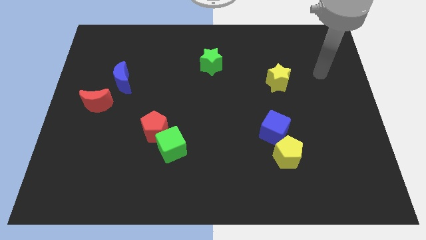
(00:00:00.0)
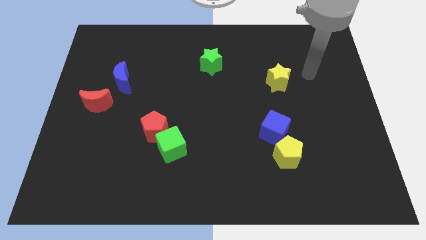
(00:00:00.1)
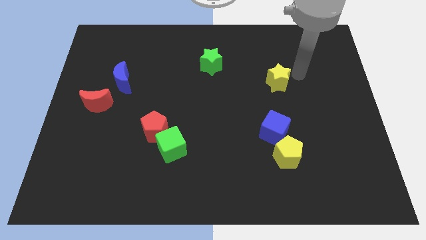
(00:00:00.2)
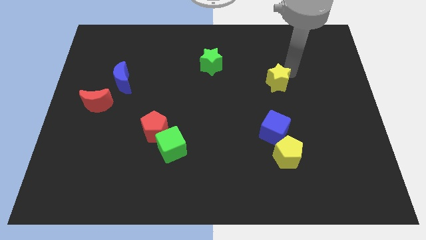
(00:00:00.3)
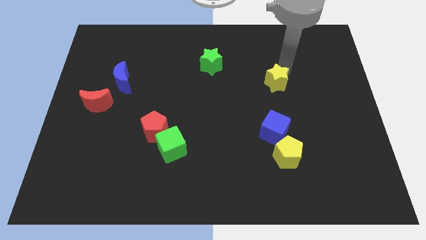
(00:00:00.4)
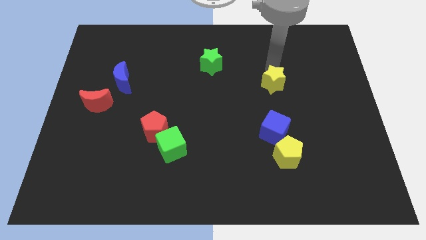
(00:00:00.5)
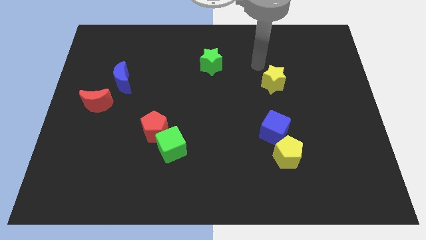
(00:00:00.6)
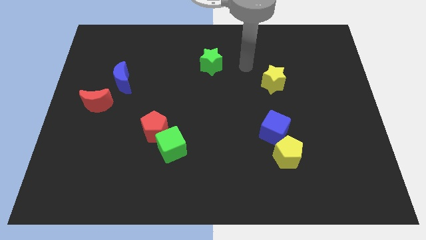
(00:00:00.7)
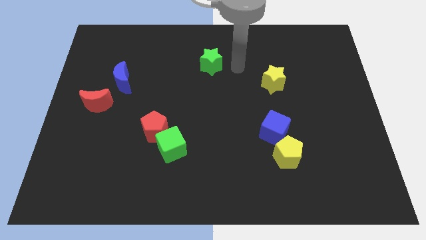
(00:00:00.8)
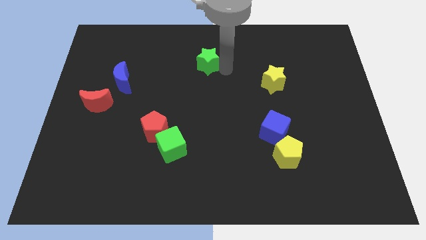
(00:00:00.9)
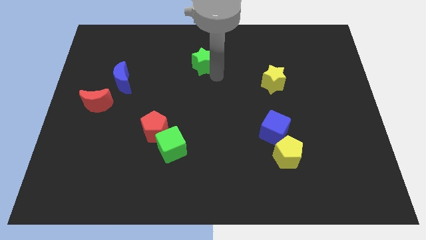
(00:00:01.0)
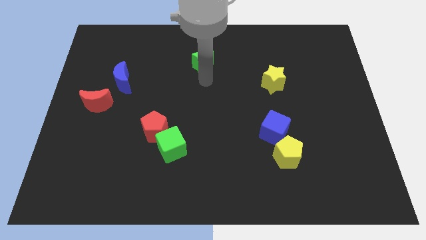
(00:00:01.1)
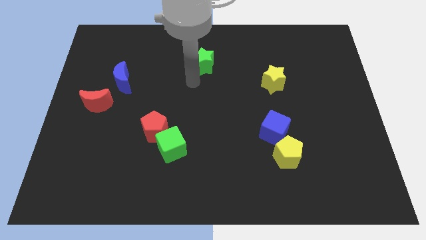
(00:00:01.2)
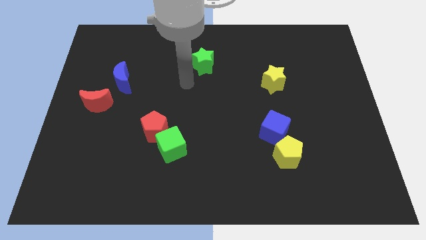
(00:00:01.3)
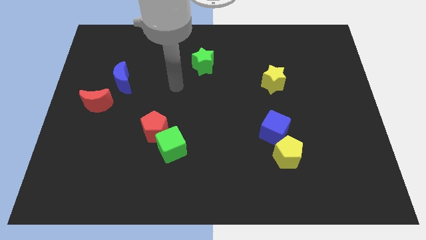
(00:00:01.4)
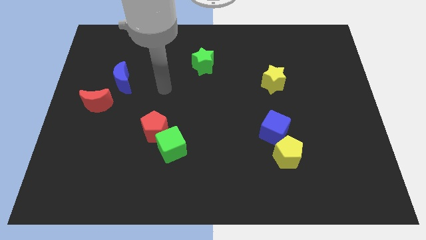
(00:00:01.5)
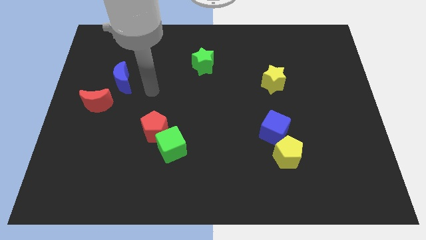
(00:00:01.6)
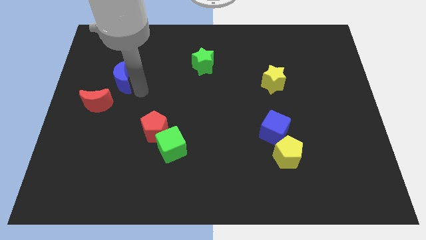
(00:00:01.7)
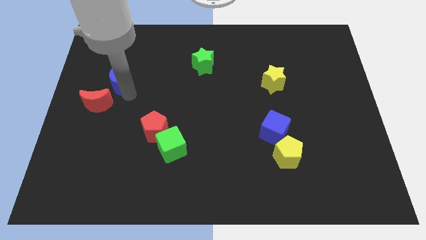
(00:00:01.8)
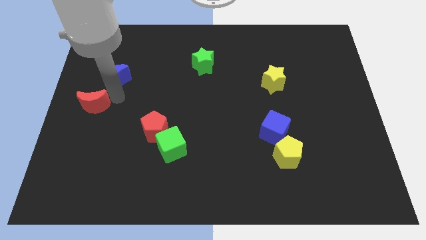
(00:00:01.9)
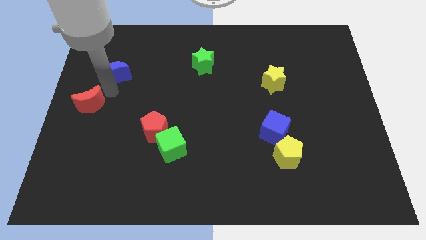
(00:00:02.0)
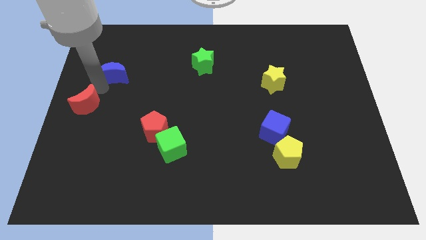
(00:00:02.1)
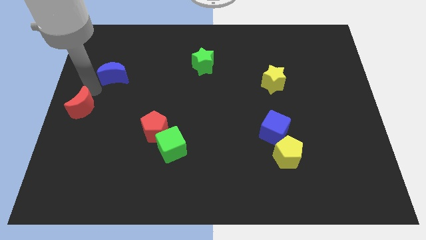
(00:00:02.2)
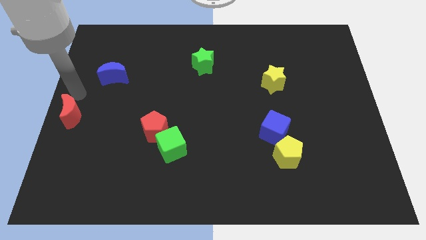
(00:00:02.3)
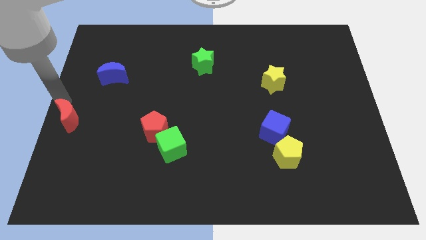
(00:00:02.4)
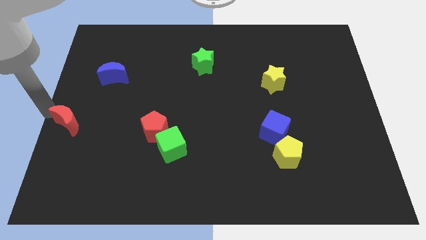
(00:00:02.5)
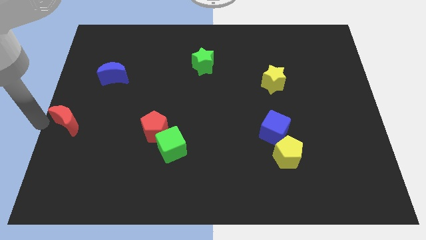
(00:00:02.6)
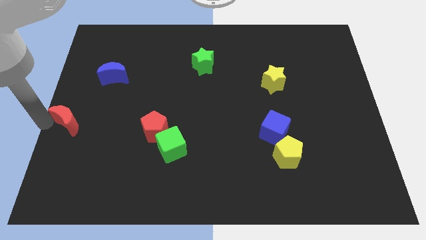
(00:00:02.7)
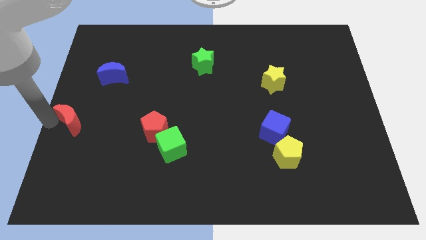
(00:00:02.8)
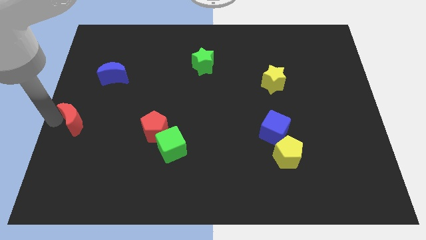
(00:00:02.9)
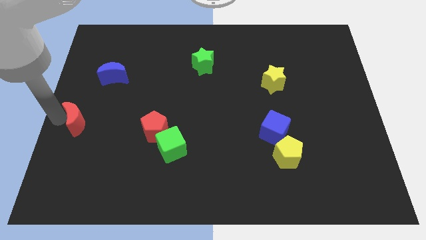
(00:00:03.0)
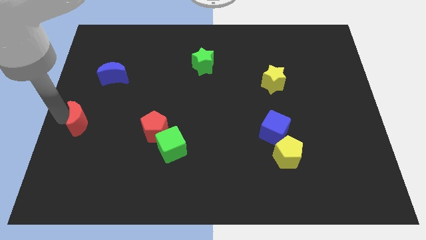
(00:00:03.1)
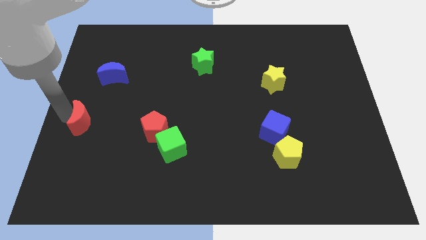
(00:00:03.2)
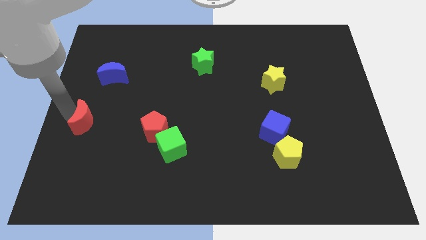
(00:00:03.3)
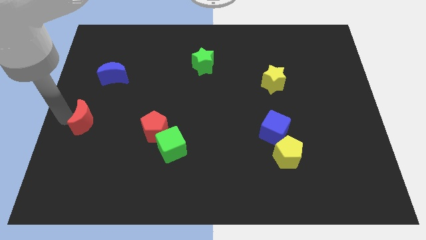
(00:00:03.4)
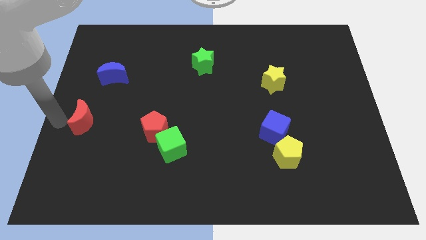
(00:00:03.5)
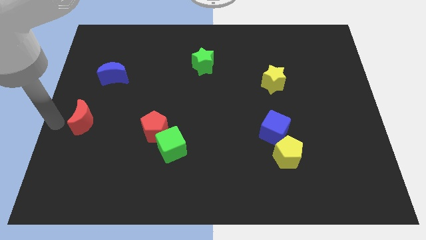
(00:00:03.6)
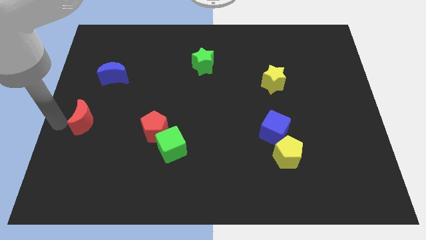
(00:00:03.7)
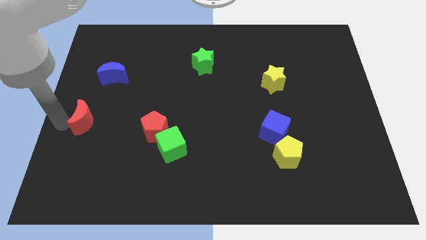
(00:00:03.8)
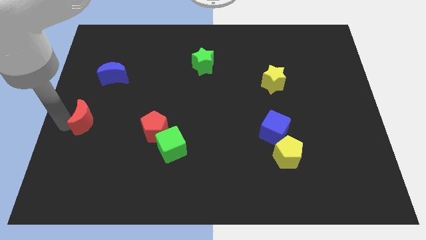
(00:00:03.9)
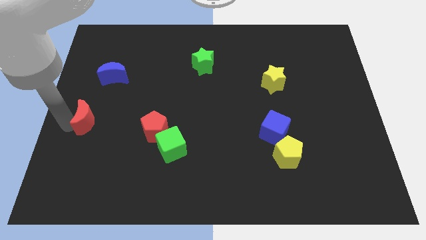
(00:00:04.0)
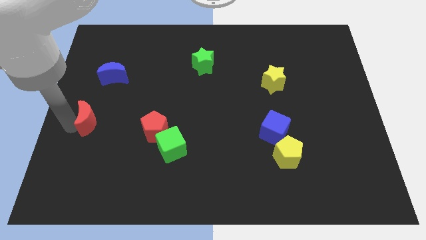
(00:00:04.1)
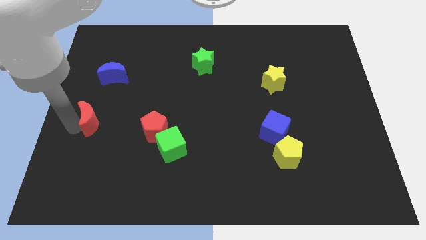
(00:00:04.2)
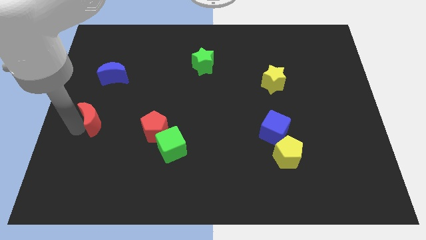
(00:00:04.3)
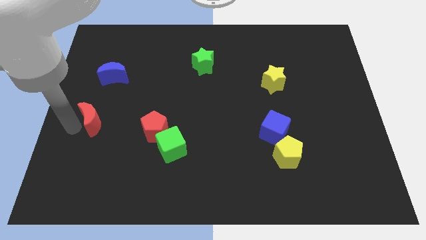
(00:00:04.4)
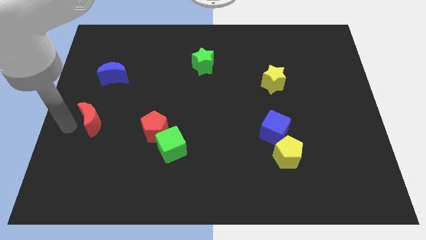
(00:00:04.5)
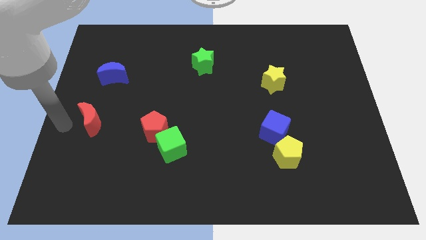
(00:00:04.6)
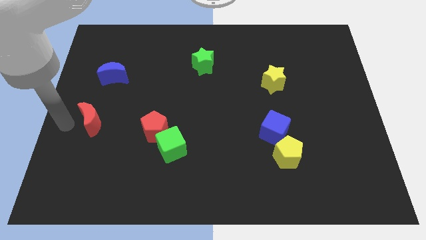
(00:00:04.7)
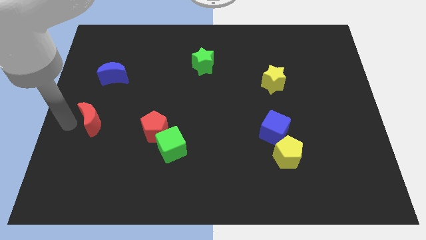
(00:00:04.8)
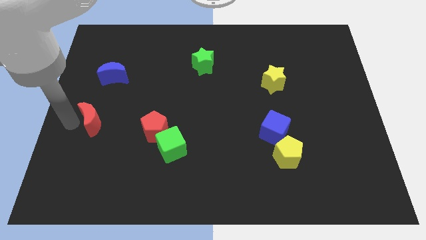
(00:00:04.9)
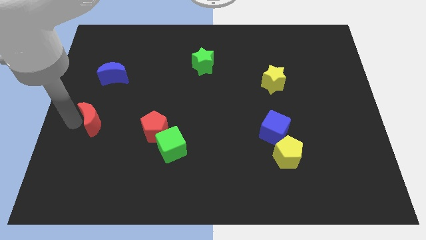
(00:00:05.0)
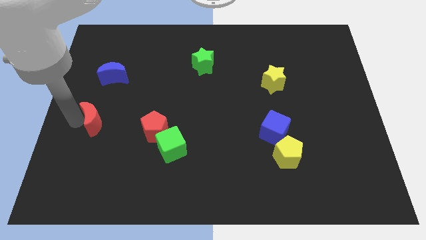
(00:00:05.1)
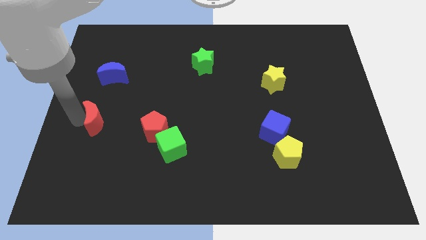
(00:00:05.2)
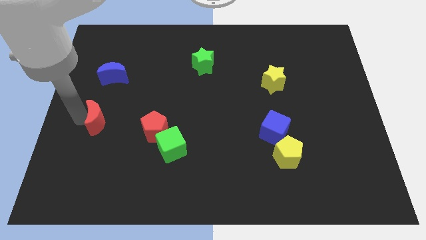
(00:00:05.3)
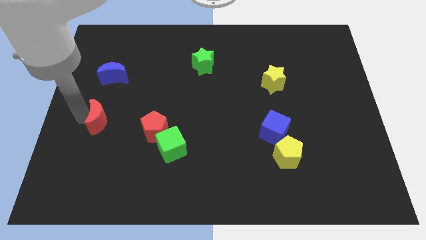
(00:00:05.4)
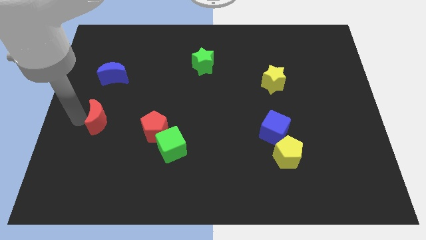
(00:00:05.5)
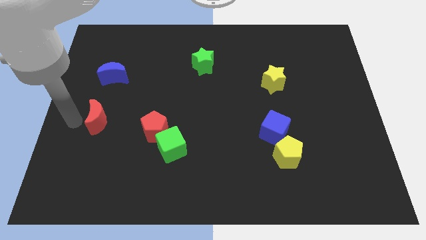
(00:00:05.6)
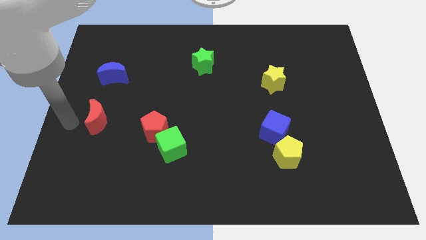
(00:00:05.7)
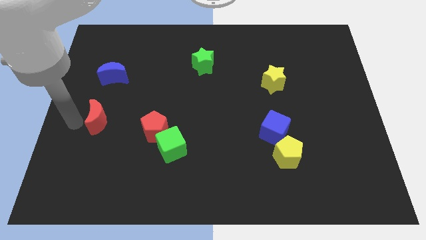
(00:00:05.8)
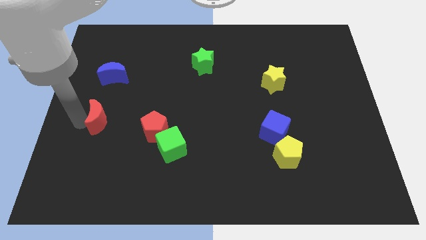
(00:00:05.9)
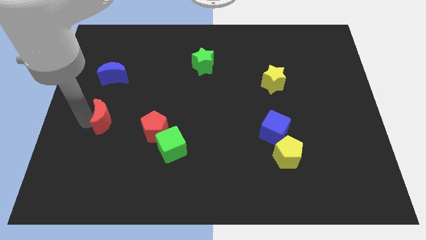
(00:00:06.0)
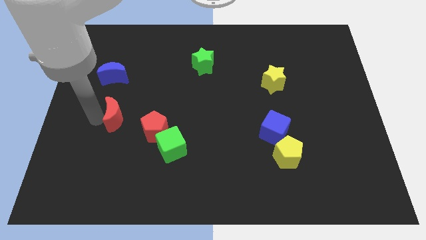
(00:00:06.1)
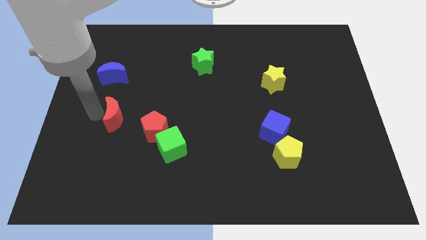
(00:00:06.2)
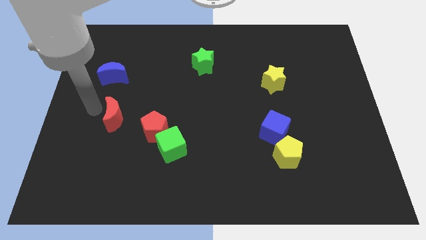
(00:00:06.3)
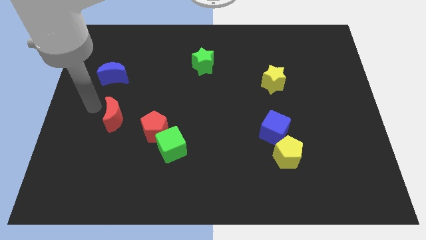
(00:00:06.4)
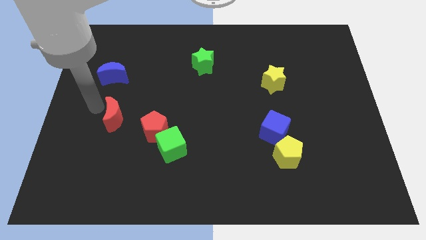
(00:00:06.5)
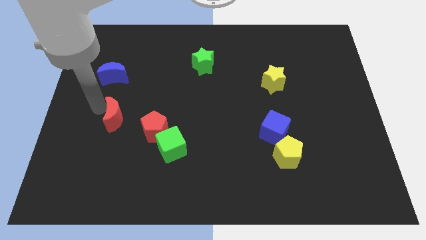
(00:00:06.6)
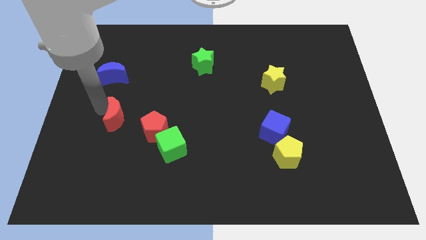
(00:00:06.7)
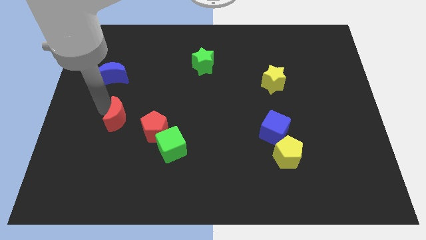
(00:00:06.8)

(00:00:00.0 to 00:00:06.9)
slide the red moon a little bit downwards and right diagonally

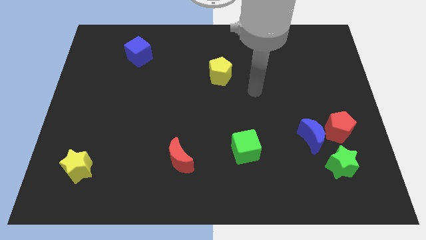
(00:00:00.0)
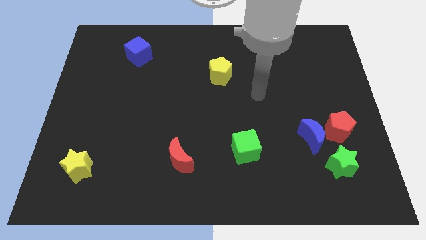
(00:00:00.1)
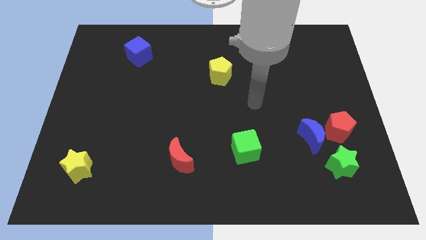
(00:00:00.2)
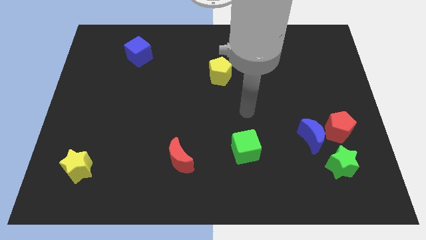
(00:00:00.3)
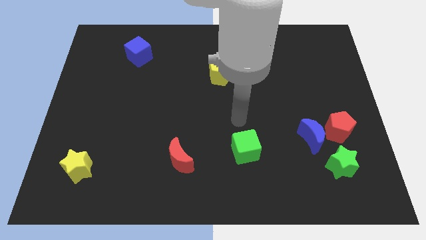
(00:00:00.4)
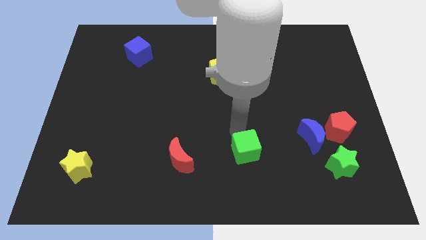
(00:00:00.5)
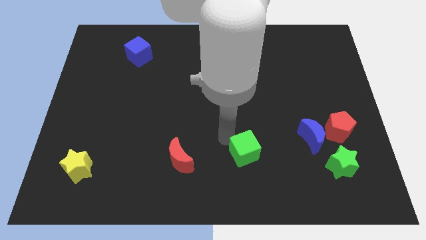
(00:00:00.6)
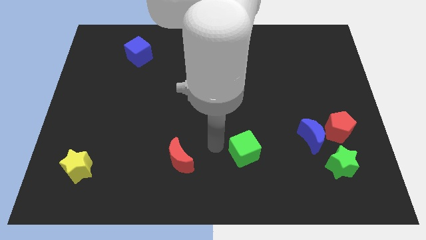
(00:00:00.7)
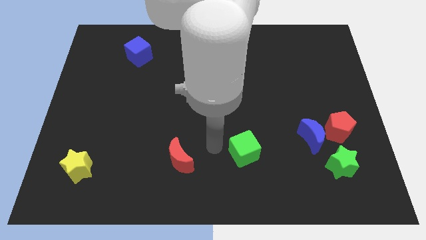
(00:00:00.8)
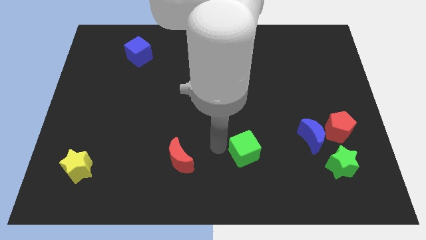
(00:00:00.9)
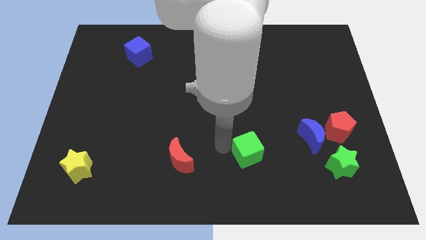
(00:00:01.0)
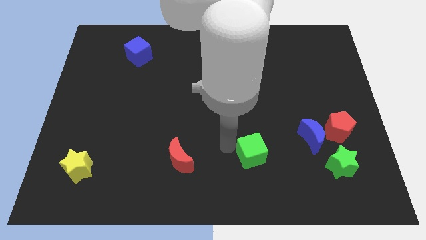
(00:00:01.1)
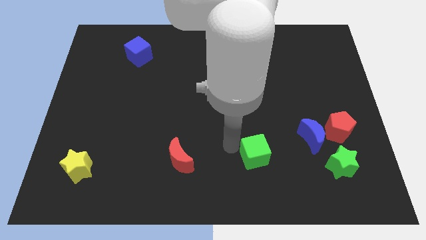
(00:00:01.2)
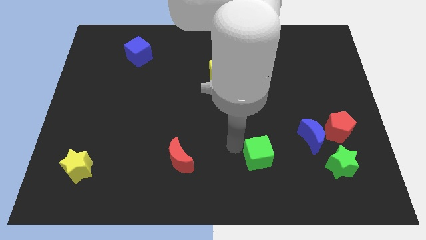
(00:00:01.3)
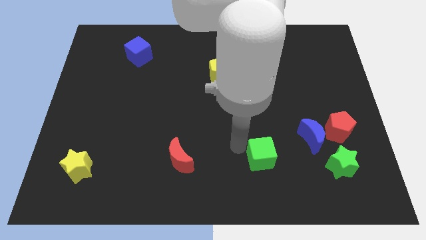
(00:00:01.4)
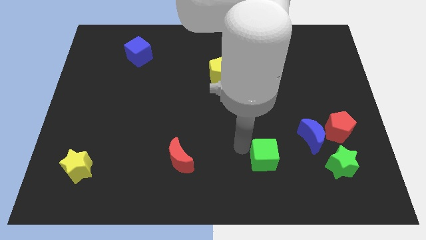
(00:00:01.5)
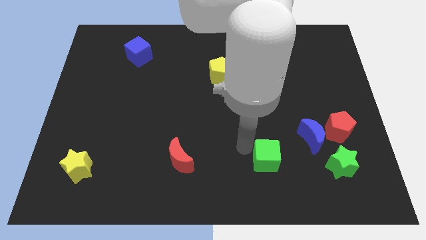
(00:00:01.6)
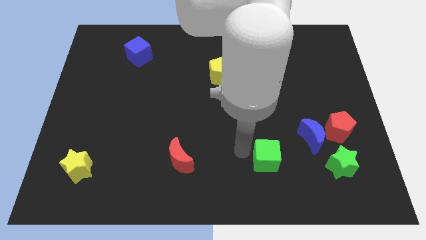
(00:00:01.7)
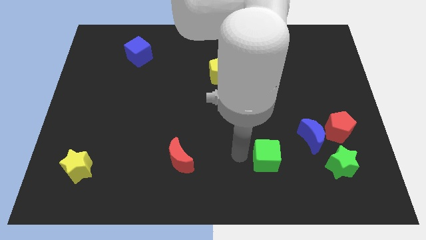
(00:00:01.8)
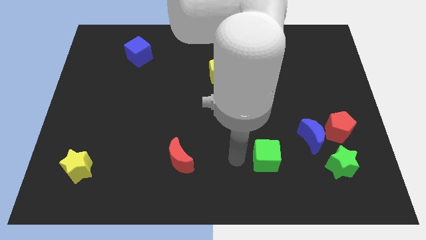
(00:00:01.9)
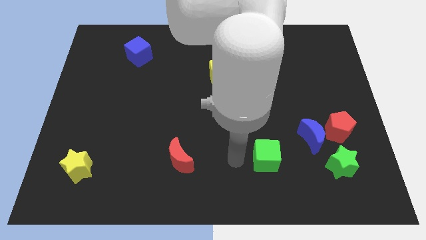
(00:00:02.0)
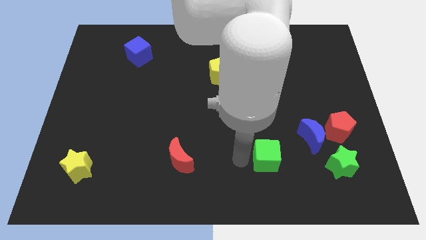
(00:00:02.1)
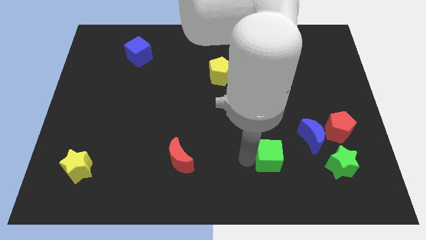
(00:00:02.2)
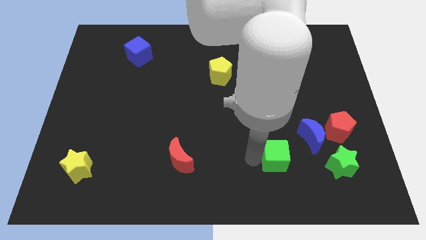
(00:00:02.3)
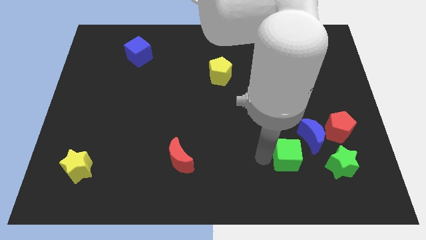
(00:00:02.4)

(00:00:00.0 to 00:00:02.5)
push the green cube right slightly
